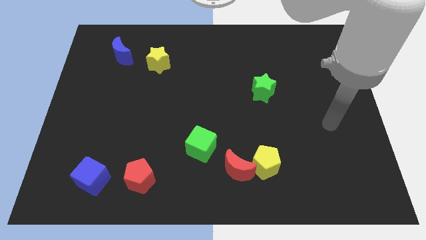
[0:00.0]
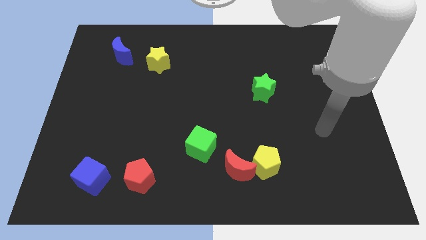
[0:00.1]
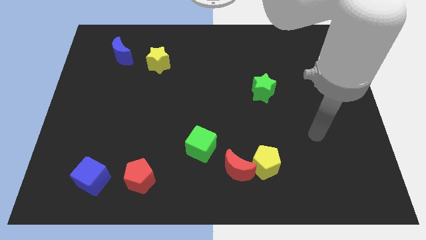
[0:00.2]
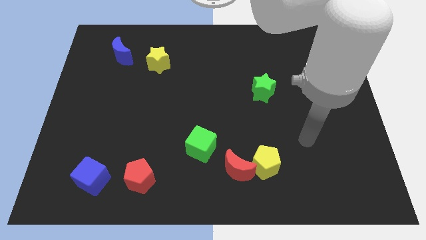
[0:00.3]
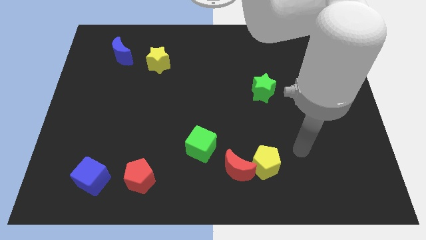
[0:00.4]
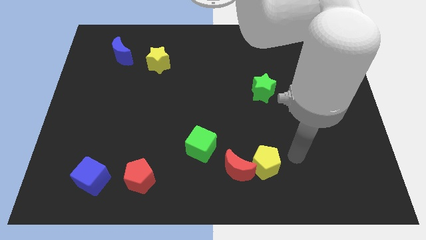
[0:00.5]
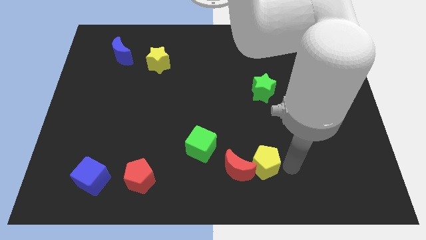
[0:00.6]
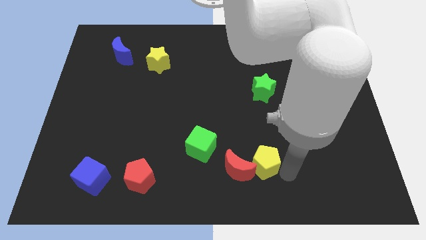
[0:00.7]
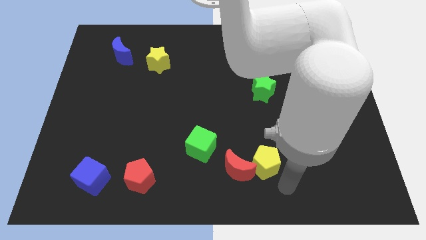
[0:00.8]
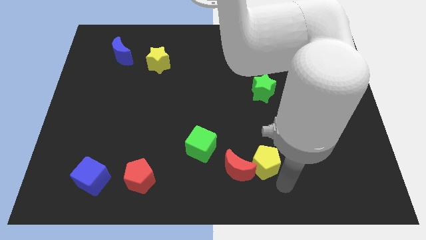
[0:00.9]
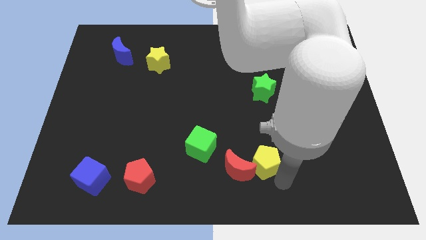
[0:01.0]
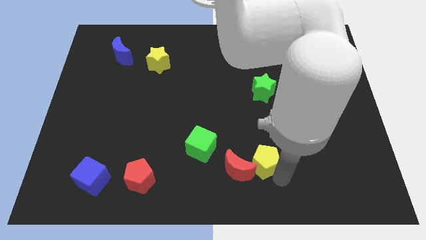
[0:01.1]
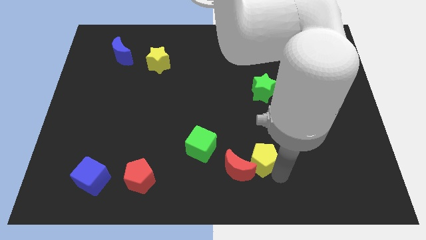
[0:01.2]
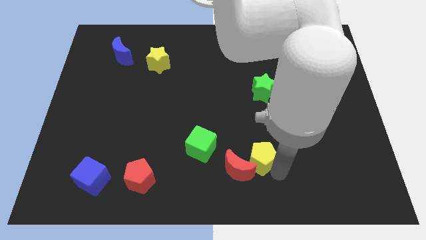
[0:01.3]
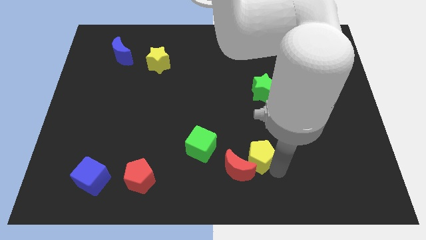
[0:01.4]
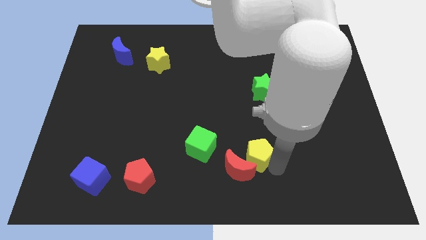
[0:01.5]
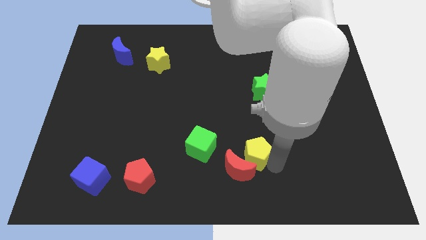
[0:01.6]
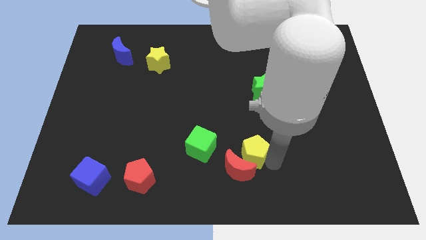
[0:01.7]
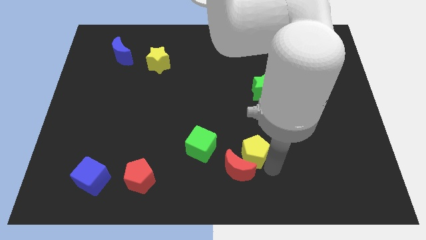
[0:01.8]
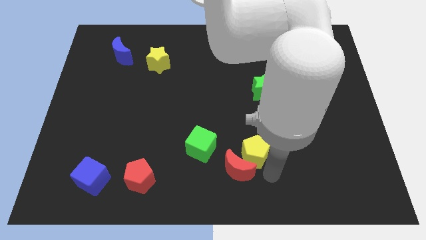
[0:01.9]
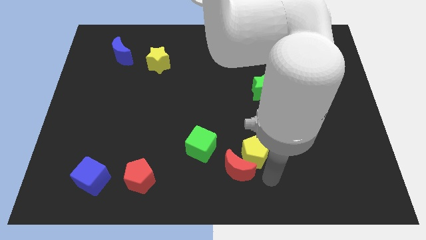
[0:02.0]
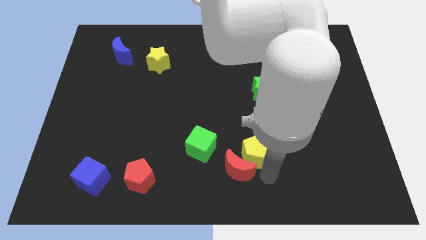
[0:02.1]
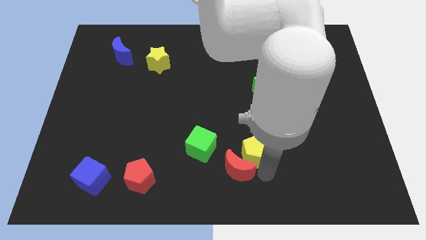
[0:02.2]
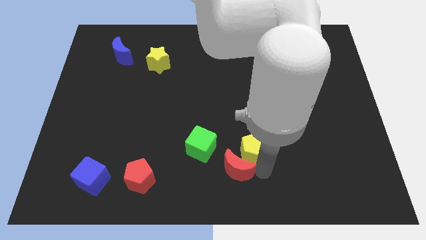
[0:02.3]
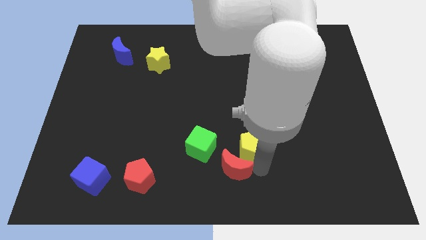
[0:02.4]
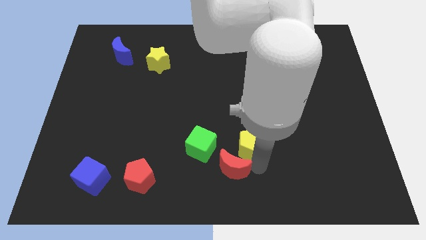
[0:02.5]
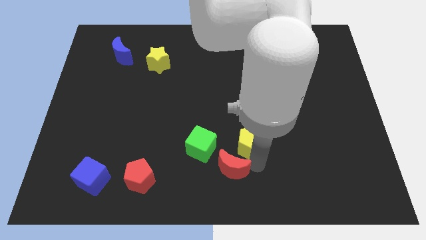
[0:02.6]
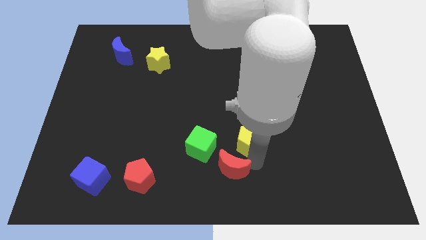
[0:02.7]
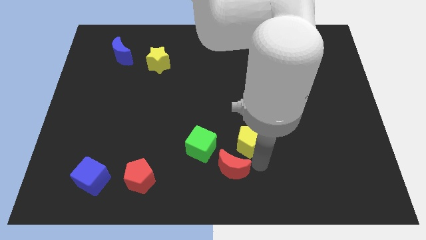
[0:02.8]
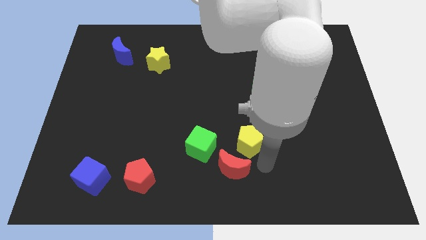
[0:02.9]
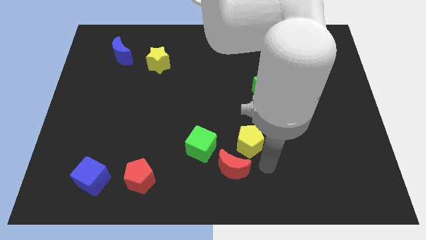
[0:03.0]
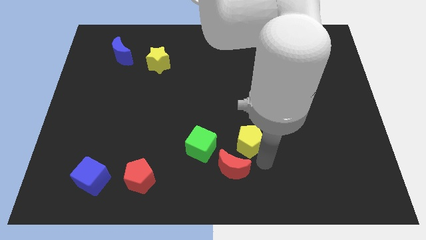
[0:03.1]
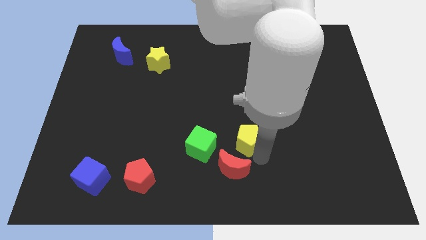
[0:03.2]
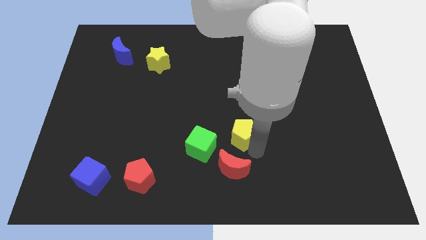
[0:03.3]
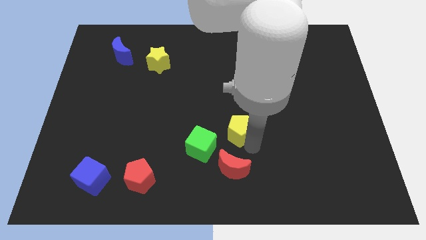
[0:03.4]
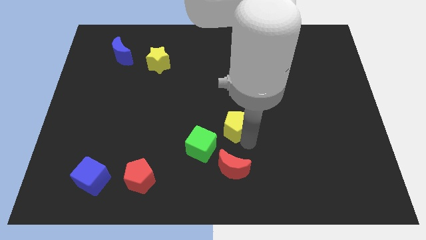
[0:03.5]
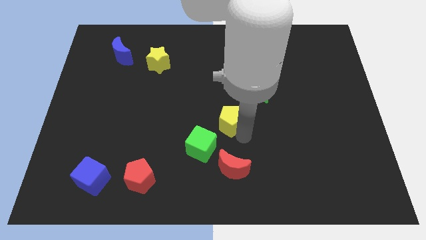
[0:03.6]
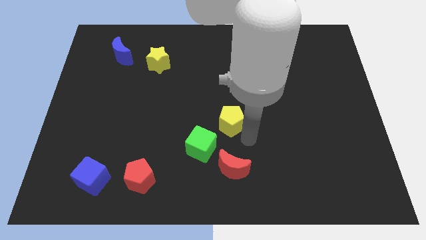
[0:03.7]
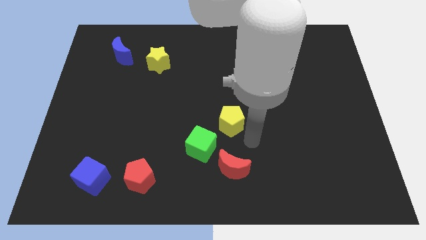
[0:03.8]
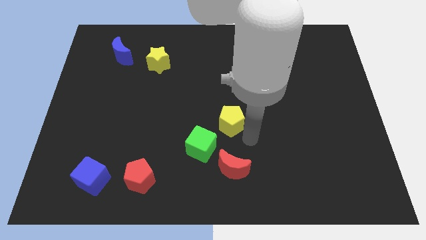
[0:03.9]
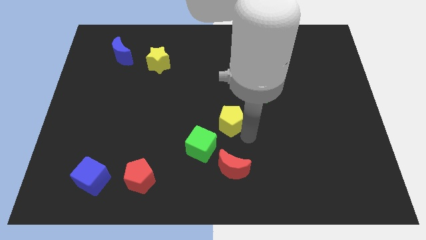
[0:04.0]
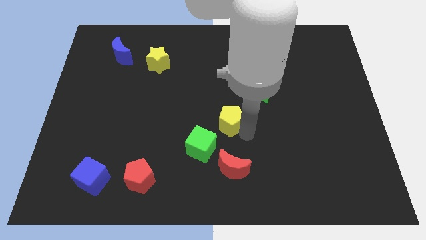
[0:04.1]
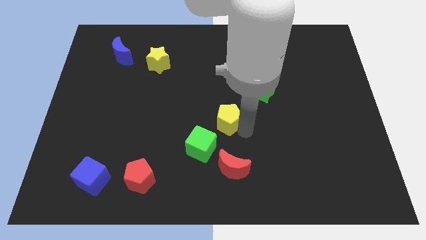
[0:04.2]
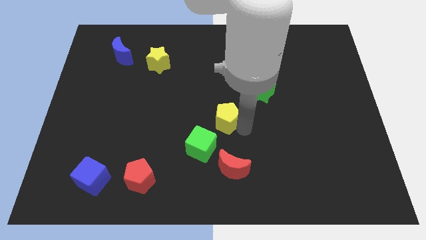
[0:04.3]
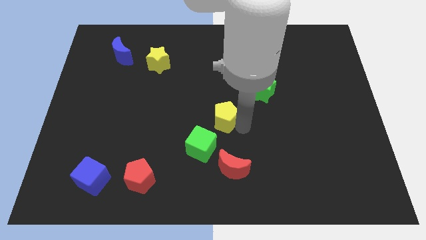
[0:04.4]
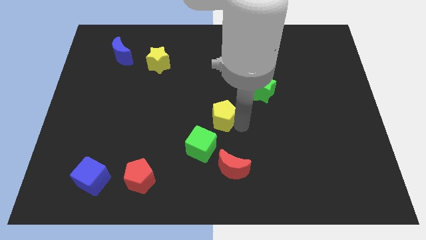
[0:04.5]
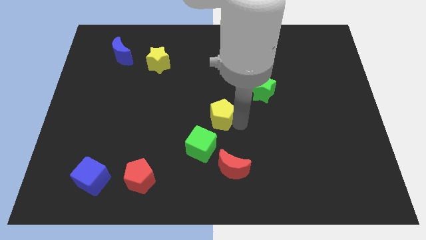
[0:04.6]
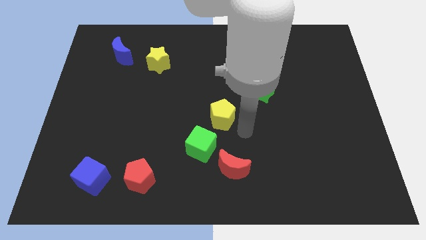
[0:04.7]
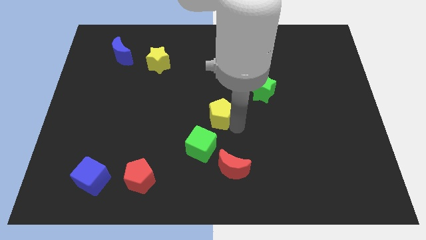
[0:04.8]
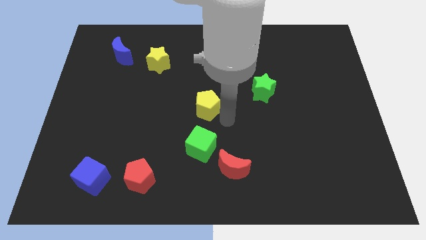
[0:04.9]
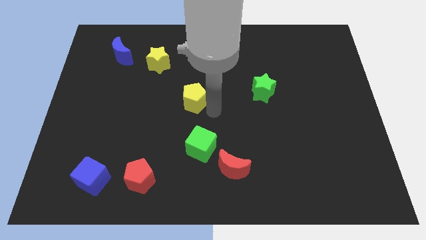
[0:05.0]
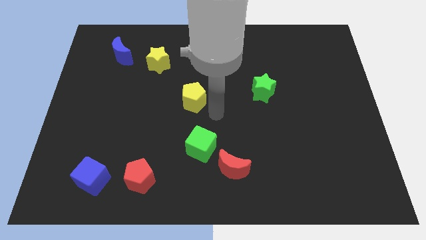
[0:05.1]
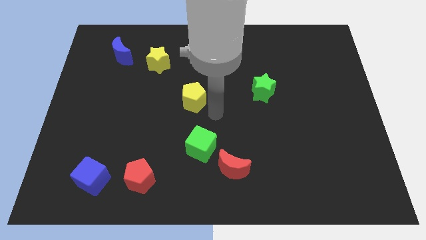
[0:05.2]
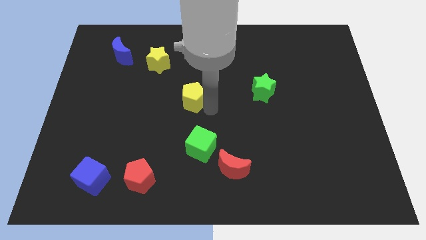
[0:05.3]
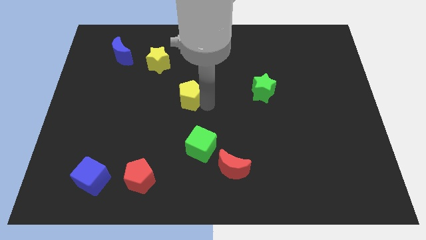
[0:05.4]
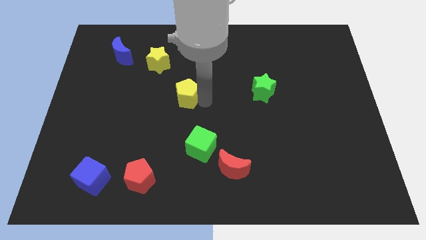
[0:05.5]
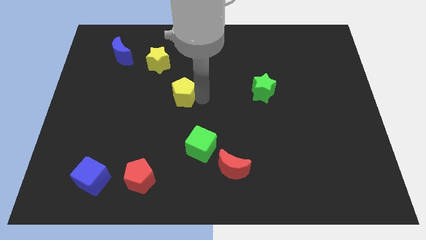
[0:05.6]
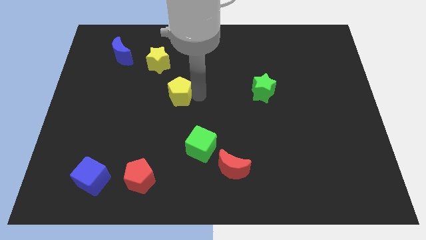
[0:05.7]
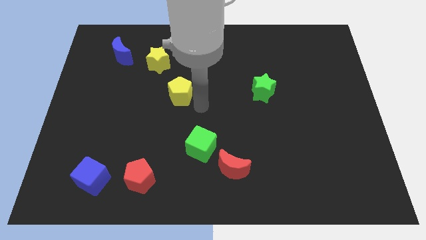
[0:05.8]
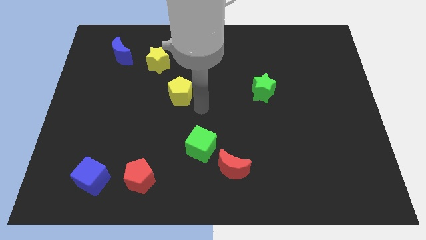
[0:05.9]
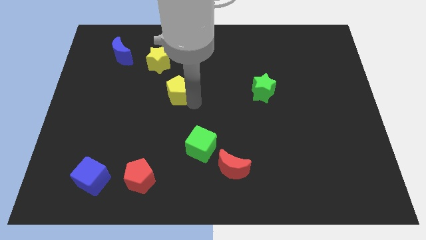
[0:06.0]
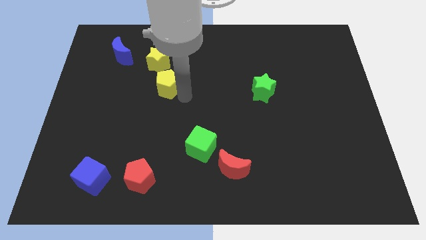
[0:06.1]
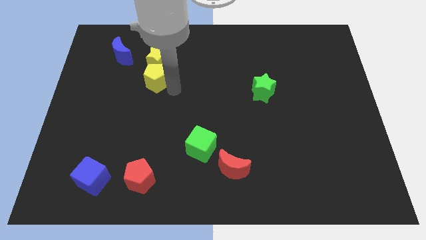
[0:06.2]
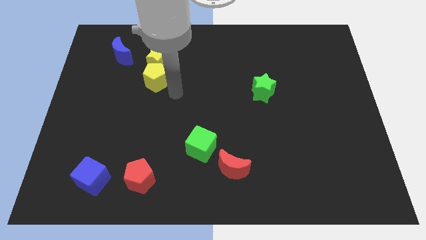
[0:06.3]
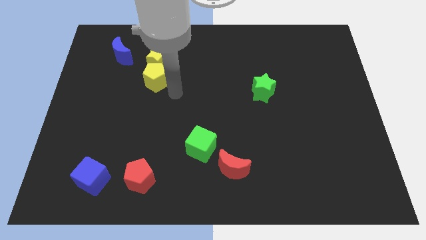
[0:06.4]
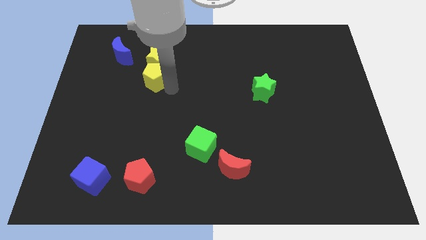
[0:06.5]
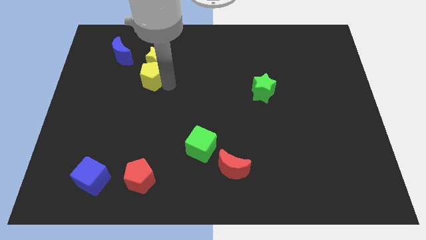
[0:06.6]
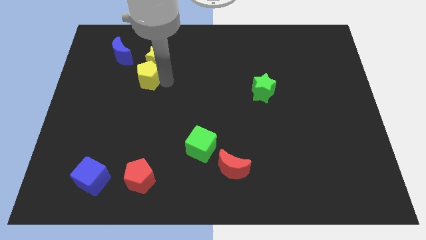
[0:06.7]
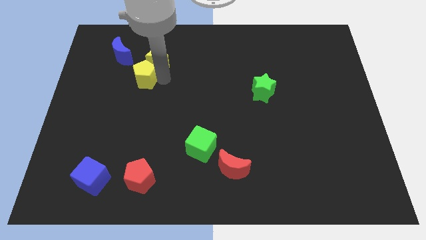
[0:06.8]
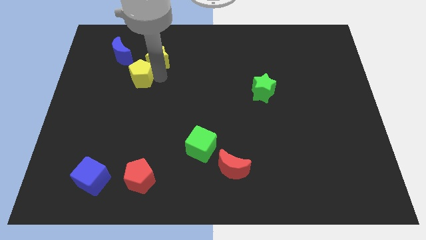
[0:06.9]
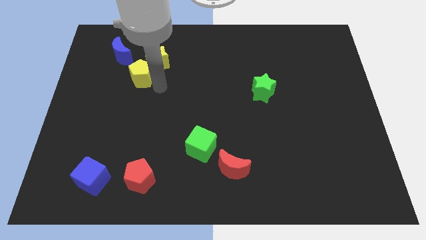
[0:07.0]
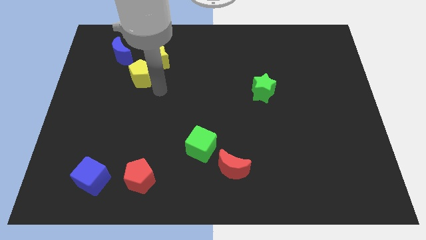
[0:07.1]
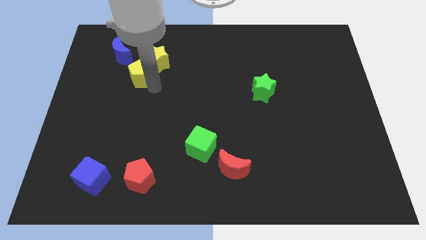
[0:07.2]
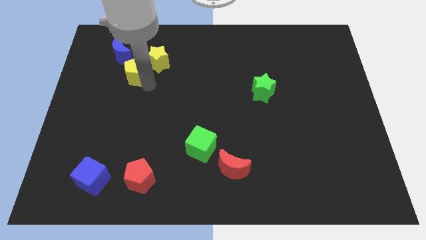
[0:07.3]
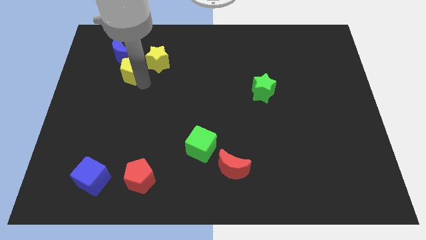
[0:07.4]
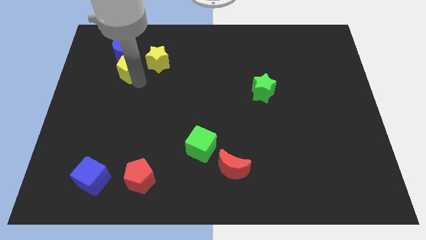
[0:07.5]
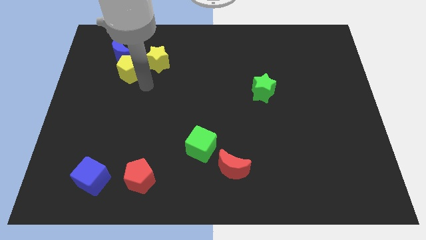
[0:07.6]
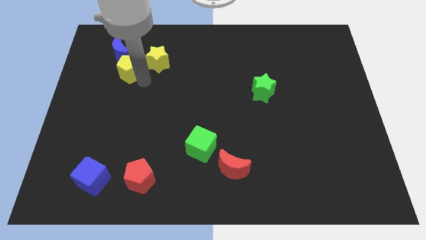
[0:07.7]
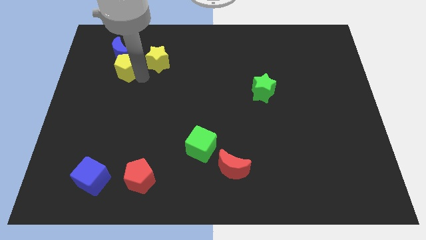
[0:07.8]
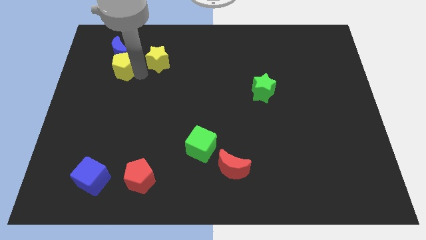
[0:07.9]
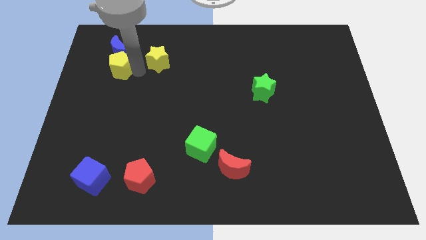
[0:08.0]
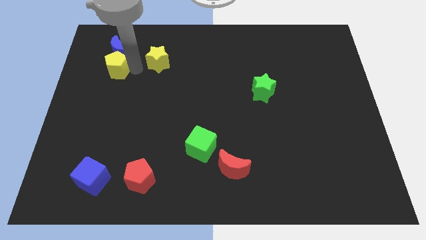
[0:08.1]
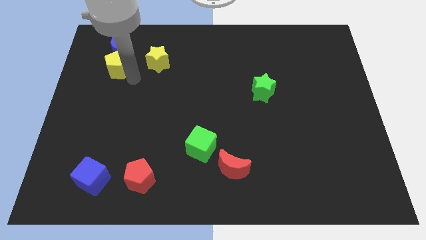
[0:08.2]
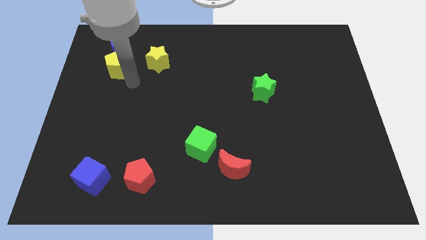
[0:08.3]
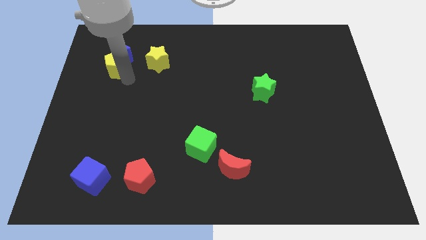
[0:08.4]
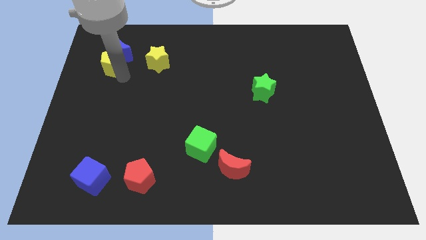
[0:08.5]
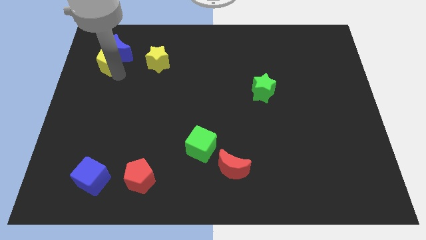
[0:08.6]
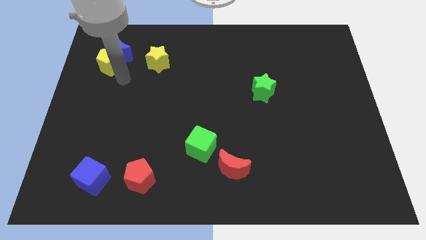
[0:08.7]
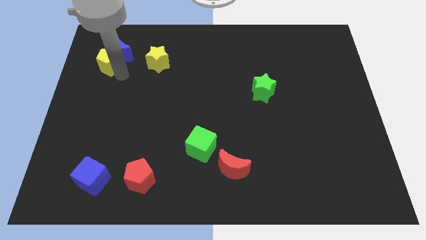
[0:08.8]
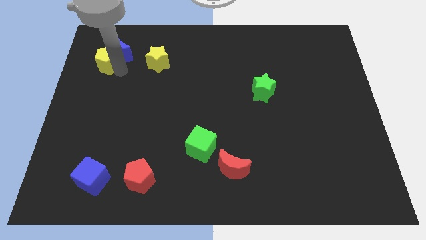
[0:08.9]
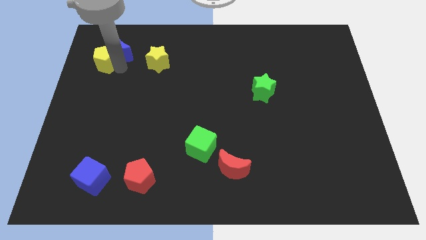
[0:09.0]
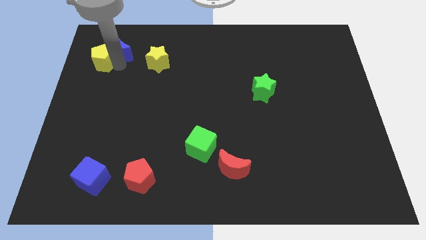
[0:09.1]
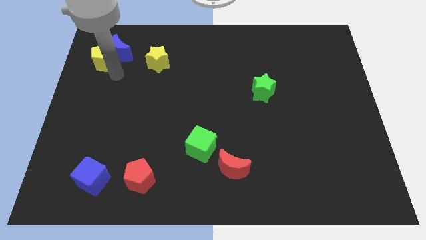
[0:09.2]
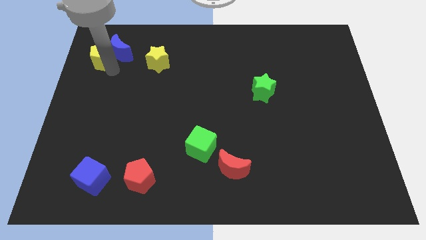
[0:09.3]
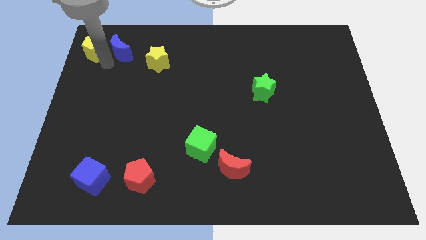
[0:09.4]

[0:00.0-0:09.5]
push the yellow pentagon to the top left of the board
